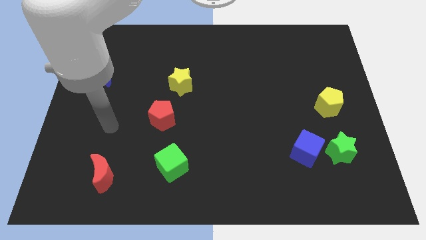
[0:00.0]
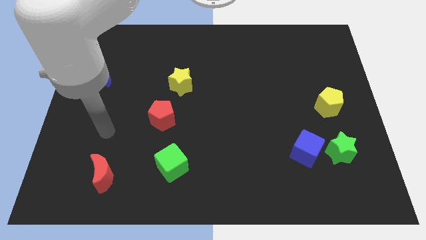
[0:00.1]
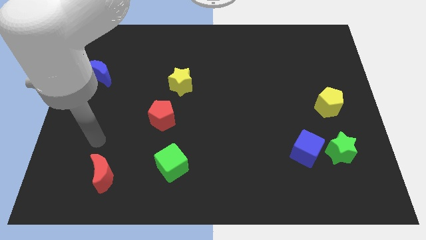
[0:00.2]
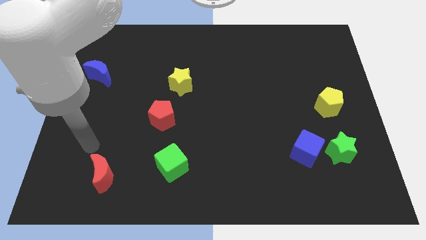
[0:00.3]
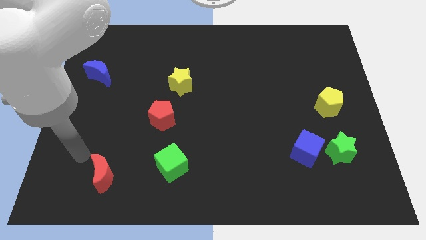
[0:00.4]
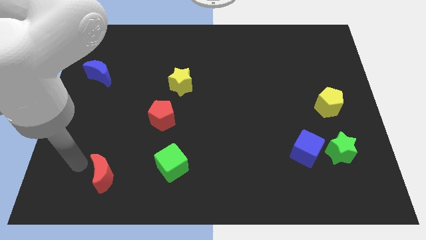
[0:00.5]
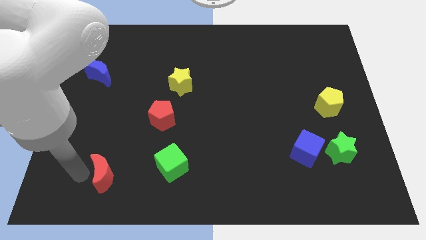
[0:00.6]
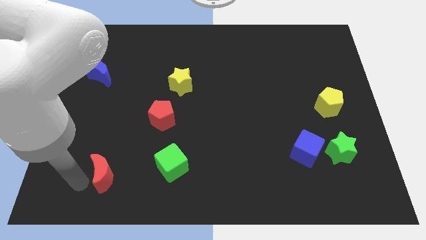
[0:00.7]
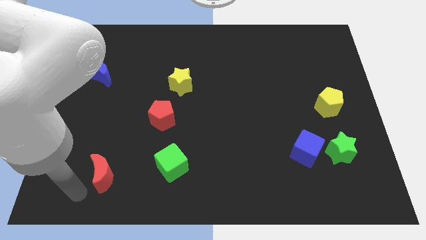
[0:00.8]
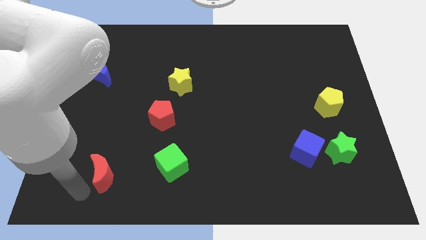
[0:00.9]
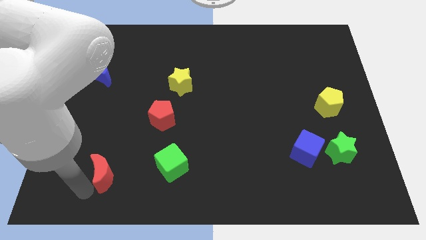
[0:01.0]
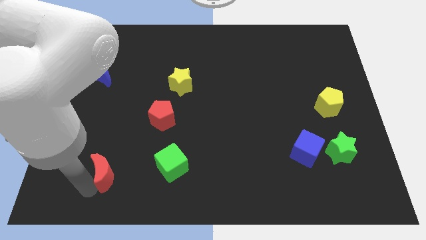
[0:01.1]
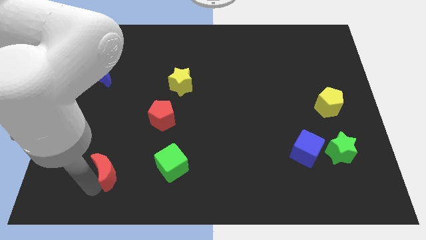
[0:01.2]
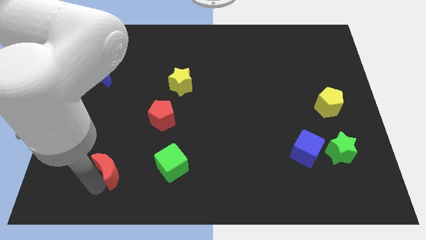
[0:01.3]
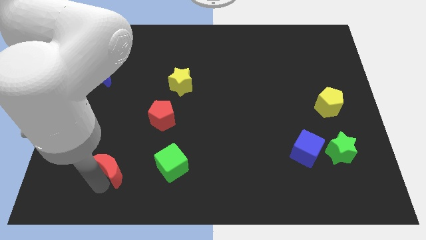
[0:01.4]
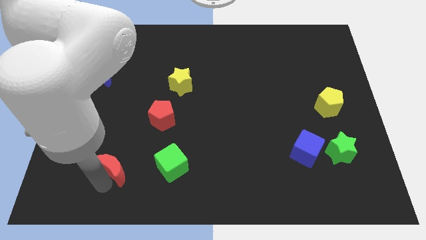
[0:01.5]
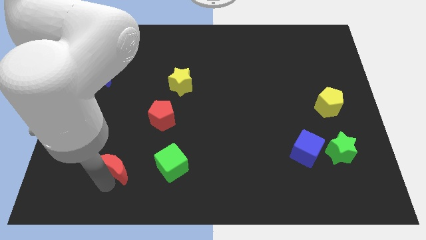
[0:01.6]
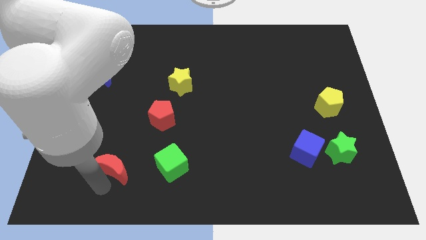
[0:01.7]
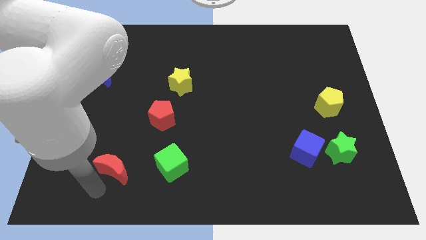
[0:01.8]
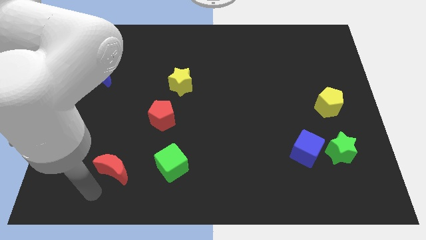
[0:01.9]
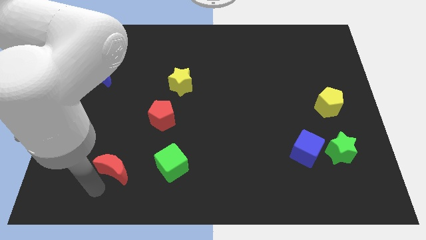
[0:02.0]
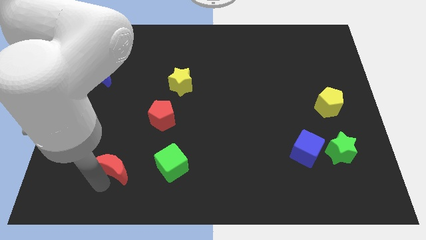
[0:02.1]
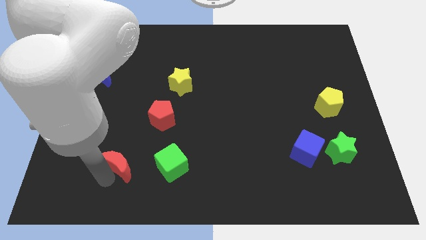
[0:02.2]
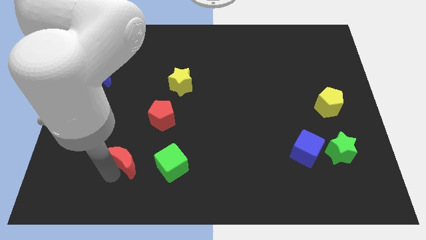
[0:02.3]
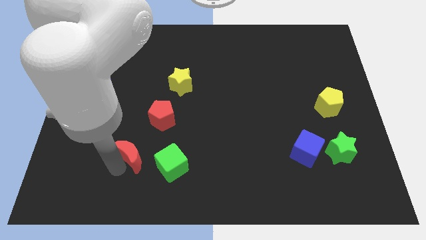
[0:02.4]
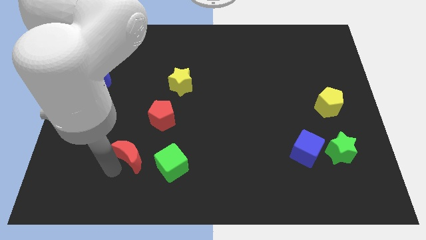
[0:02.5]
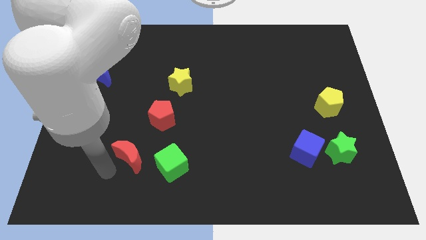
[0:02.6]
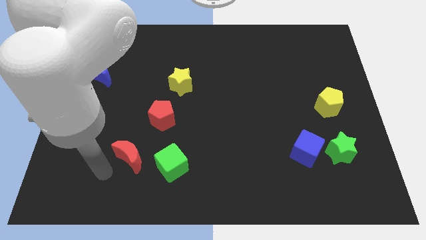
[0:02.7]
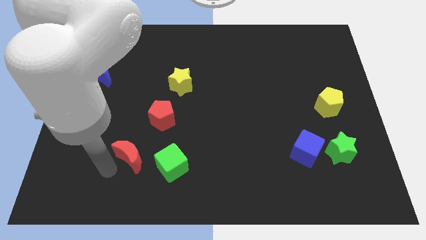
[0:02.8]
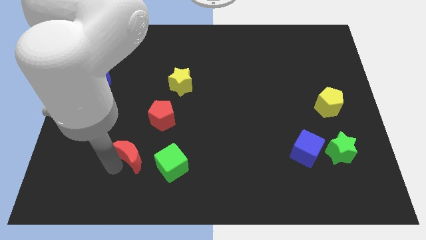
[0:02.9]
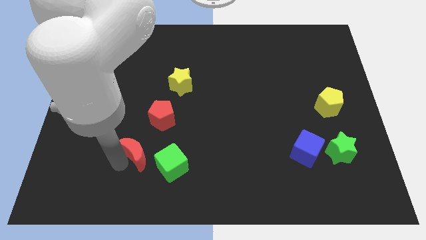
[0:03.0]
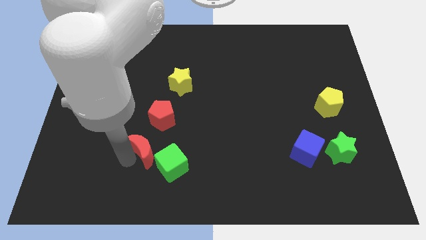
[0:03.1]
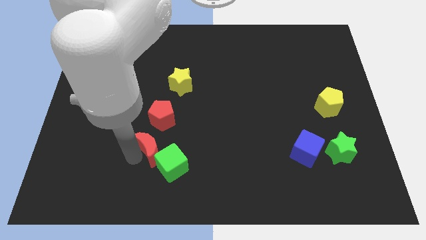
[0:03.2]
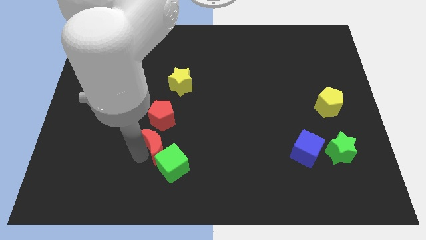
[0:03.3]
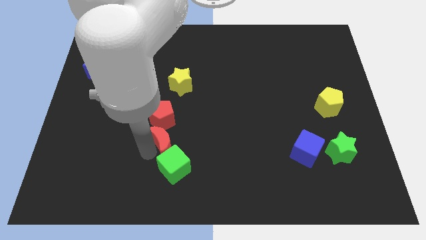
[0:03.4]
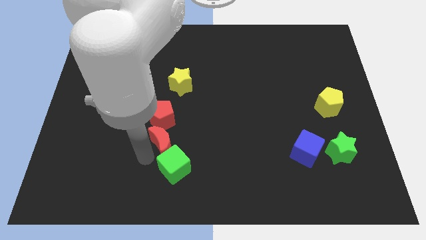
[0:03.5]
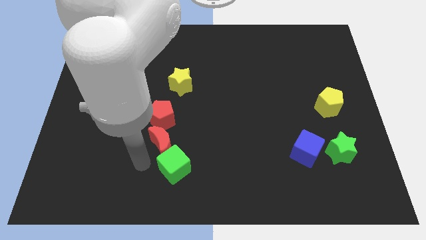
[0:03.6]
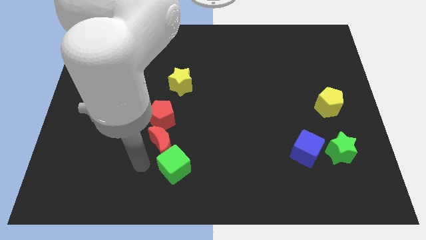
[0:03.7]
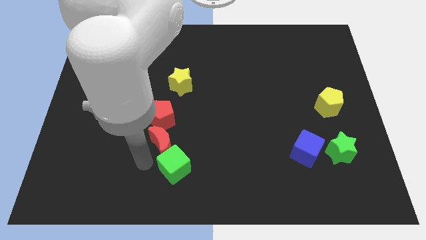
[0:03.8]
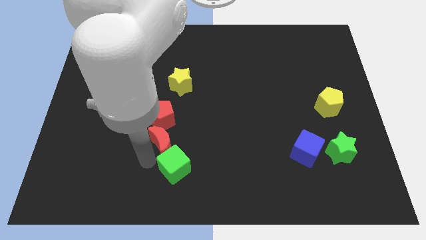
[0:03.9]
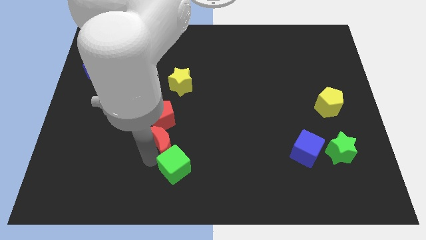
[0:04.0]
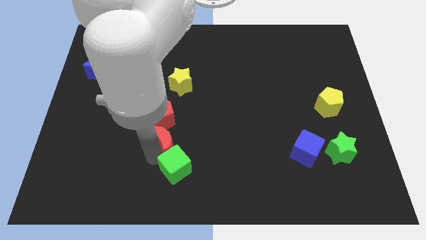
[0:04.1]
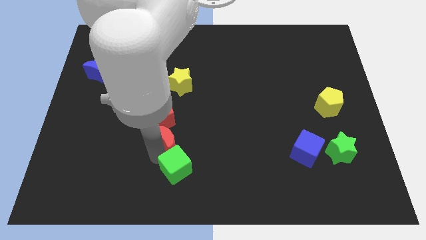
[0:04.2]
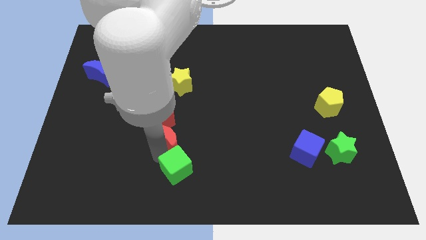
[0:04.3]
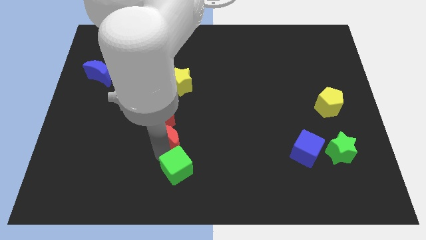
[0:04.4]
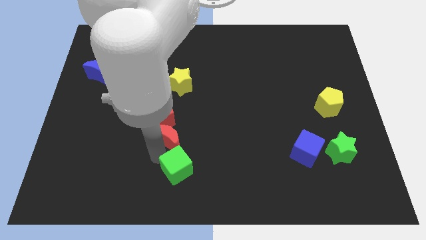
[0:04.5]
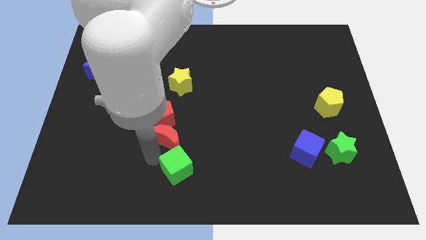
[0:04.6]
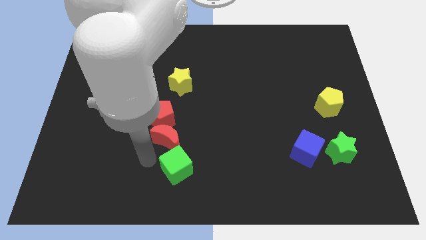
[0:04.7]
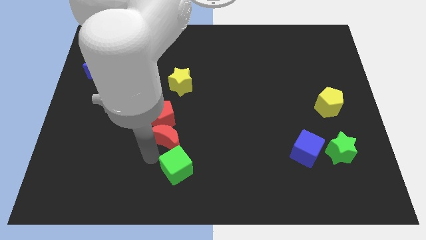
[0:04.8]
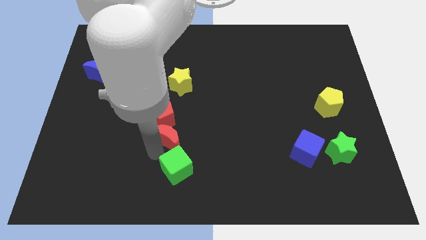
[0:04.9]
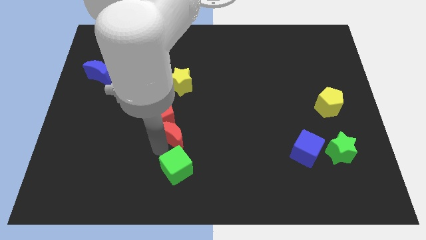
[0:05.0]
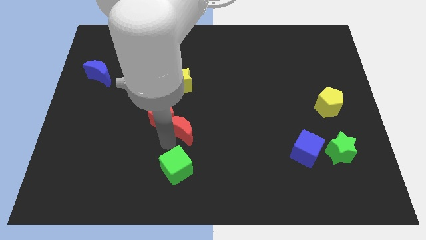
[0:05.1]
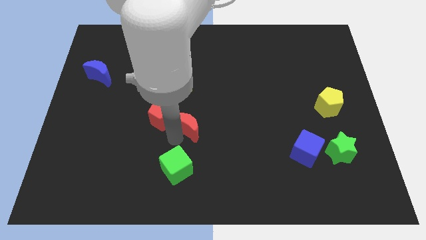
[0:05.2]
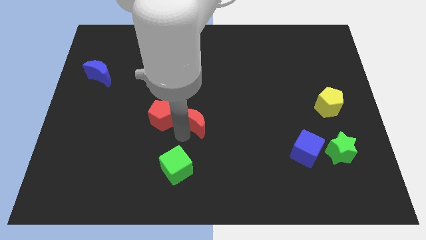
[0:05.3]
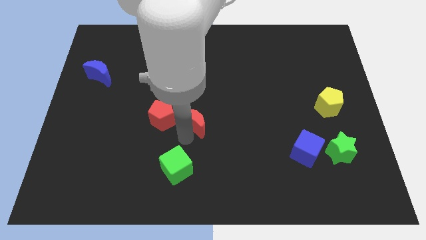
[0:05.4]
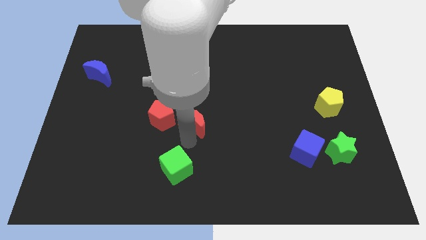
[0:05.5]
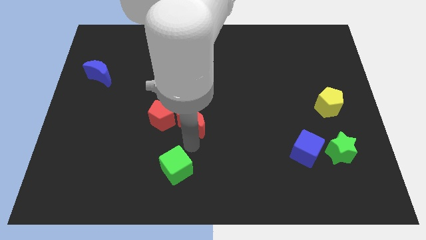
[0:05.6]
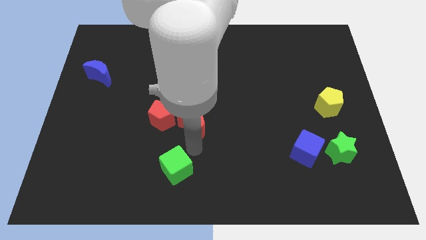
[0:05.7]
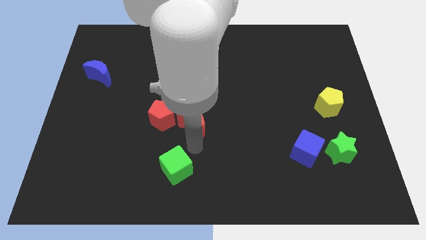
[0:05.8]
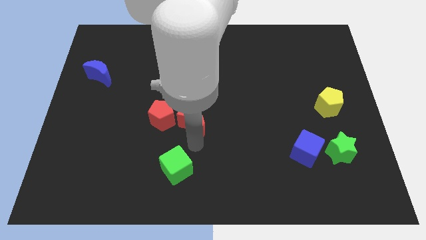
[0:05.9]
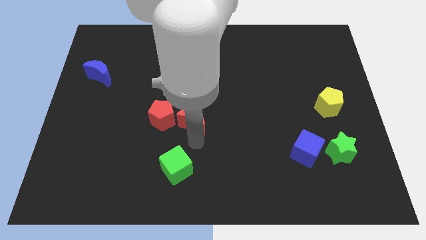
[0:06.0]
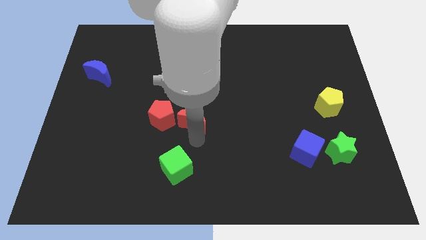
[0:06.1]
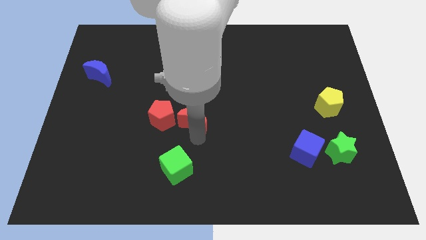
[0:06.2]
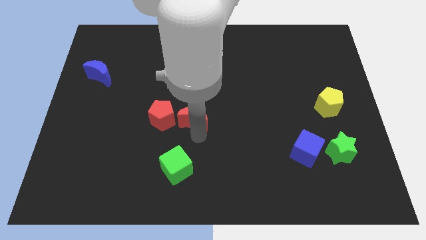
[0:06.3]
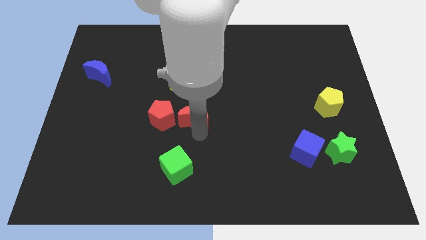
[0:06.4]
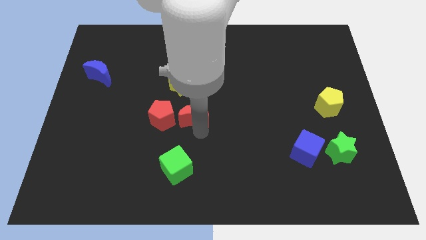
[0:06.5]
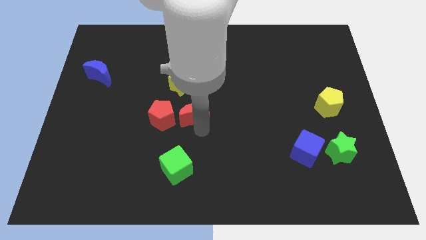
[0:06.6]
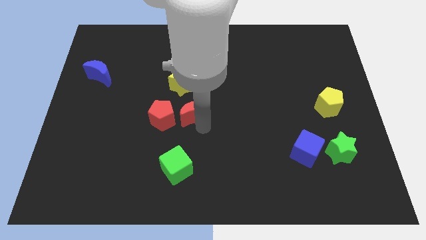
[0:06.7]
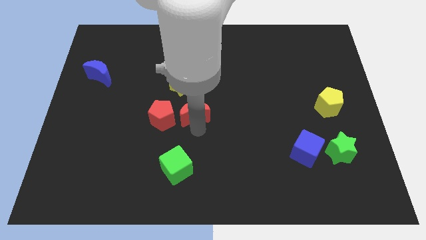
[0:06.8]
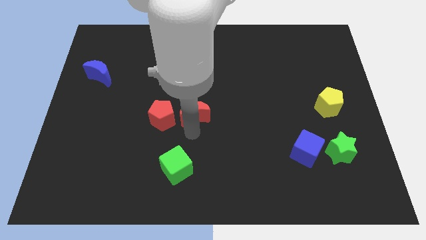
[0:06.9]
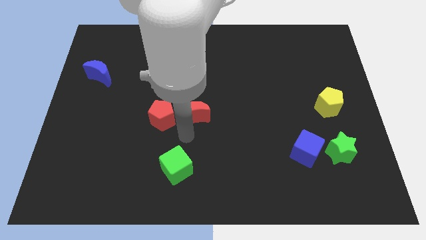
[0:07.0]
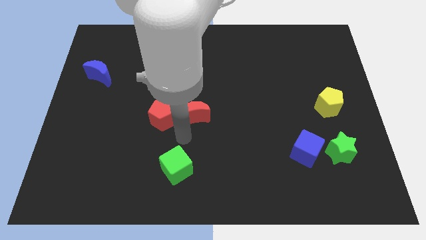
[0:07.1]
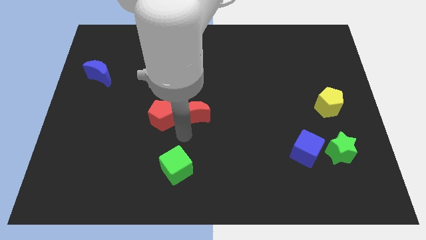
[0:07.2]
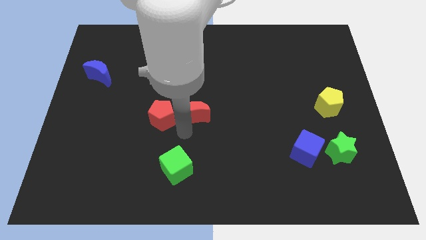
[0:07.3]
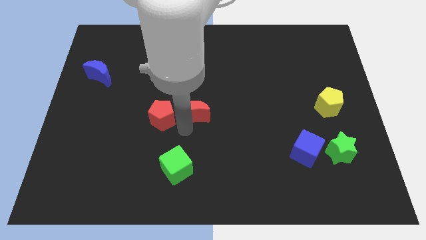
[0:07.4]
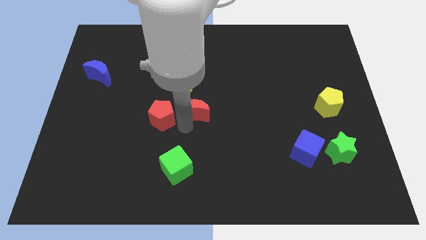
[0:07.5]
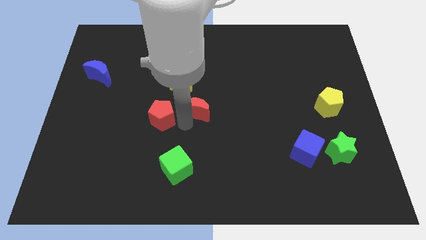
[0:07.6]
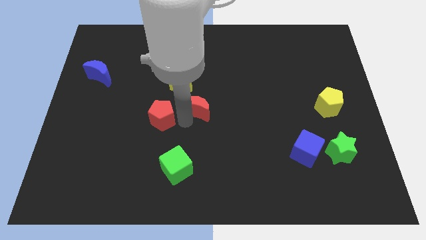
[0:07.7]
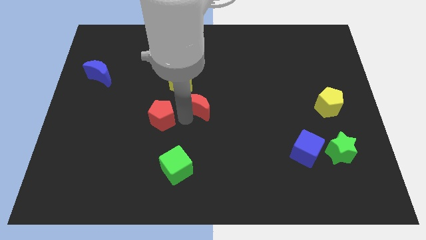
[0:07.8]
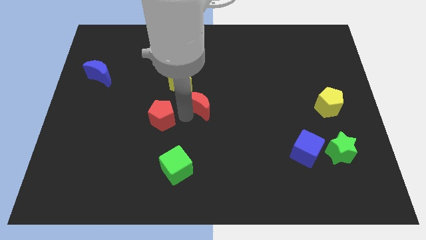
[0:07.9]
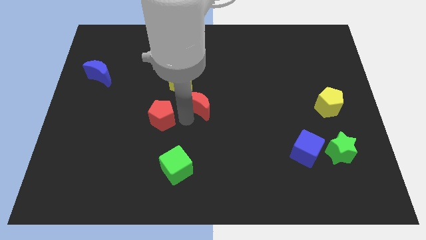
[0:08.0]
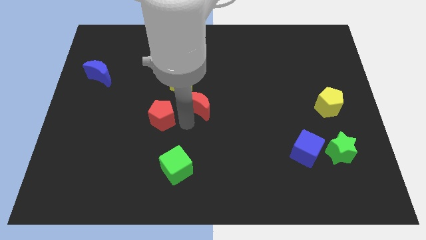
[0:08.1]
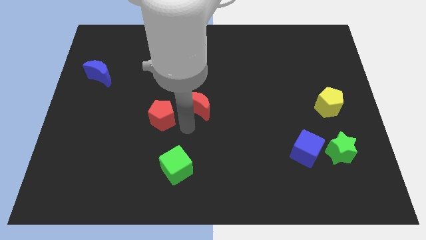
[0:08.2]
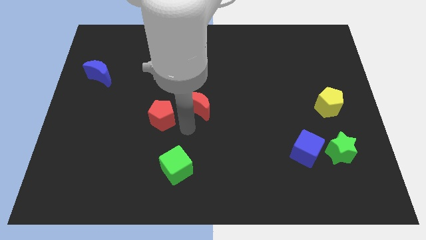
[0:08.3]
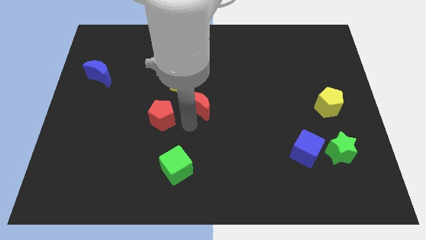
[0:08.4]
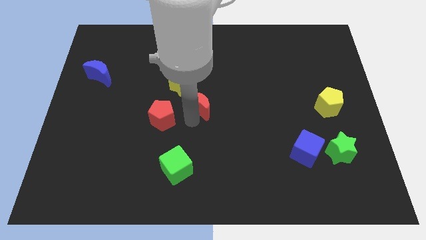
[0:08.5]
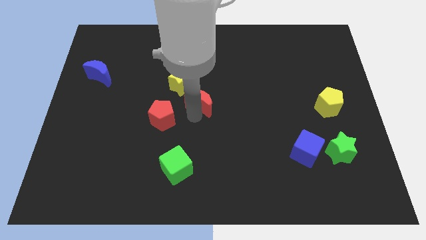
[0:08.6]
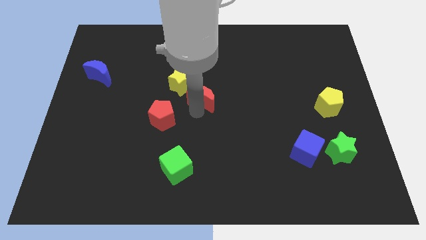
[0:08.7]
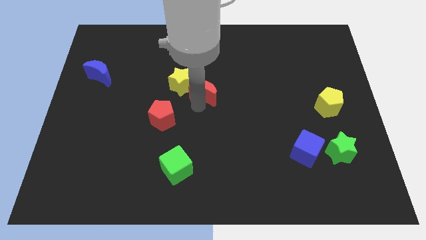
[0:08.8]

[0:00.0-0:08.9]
put the red moon to the right side of the yellow star
